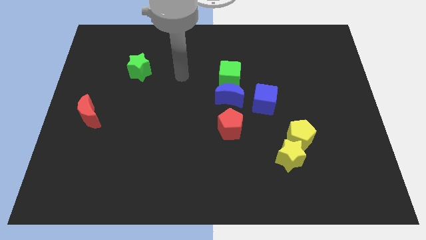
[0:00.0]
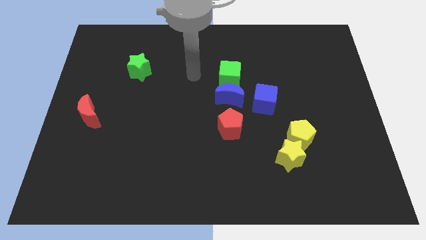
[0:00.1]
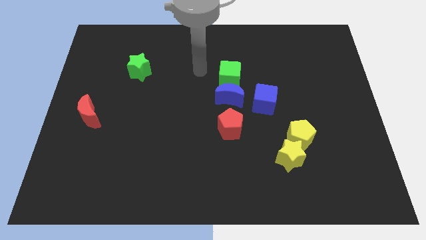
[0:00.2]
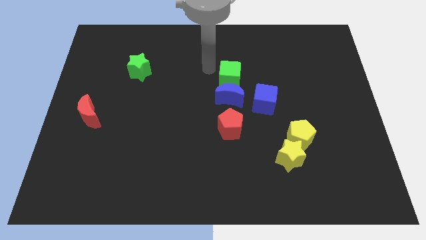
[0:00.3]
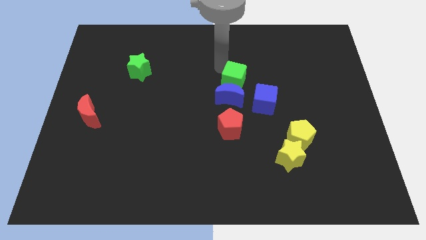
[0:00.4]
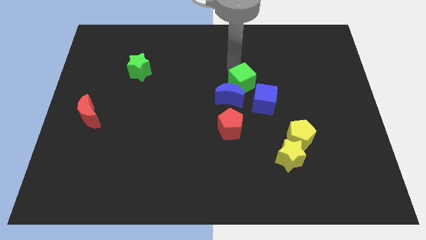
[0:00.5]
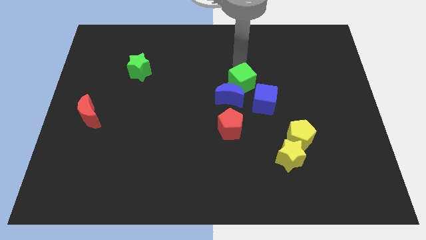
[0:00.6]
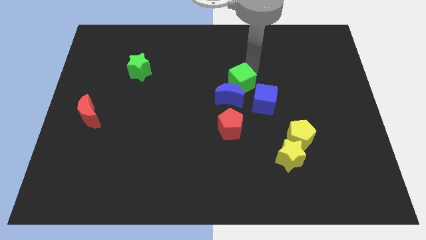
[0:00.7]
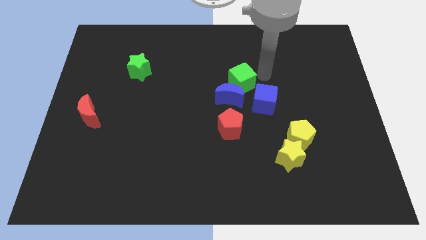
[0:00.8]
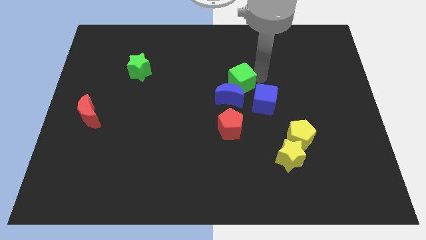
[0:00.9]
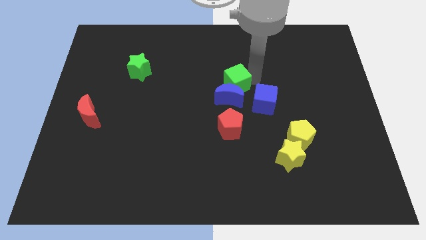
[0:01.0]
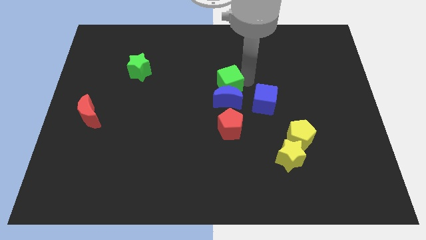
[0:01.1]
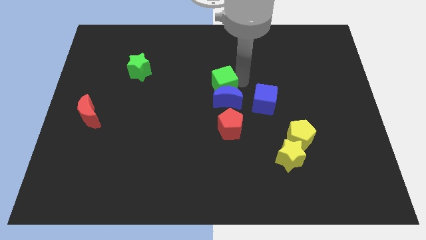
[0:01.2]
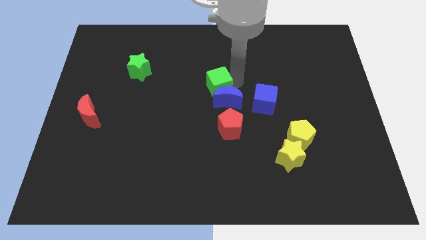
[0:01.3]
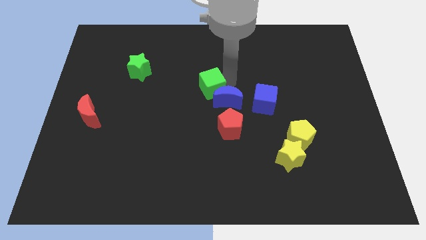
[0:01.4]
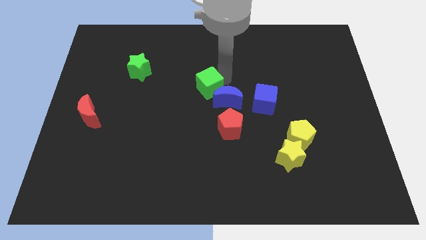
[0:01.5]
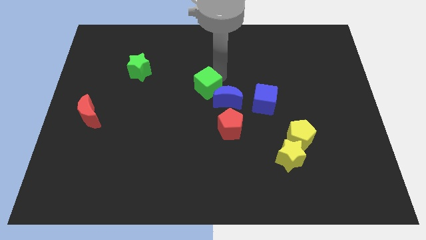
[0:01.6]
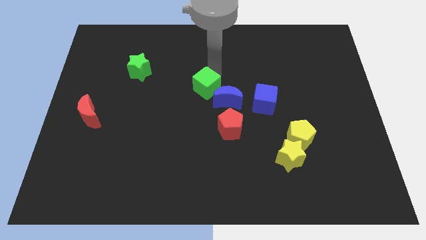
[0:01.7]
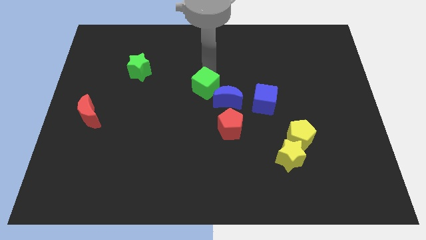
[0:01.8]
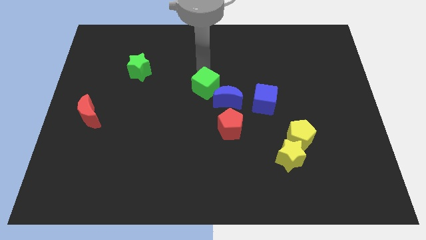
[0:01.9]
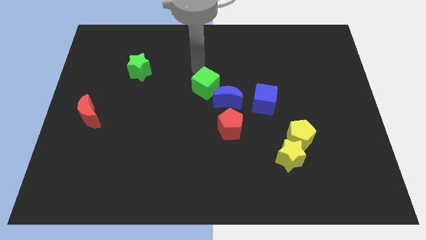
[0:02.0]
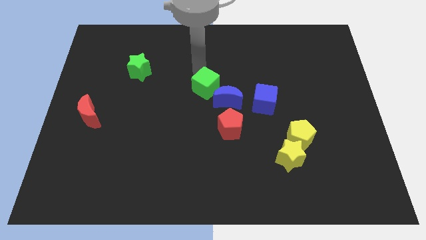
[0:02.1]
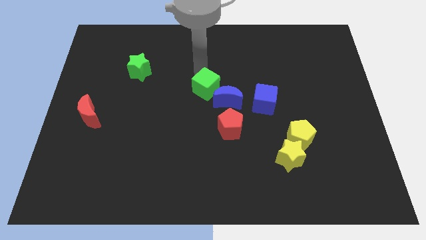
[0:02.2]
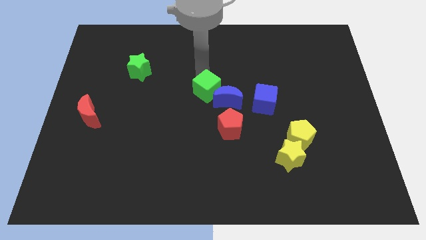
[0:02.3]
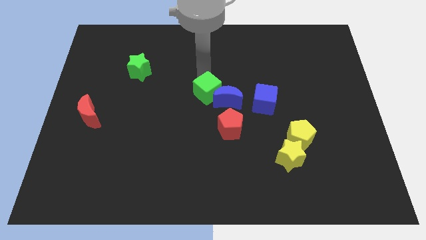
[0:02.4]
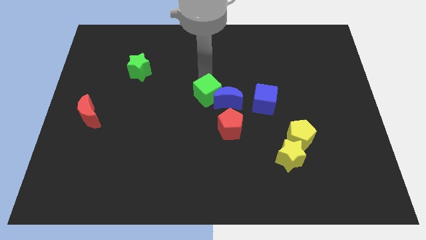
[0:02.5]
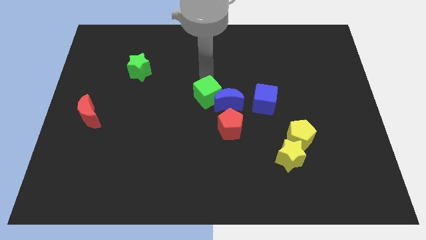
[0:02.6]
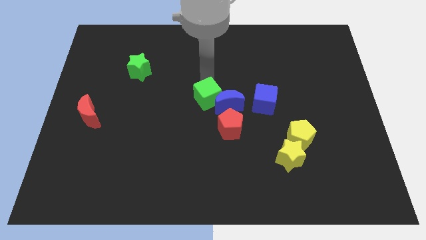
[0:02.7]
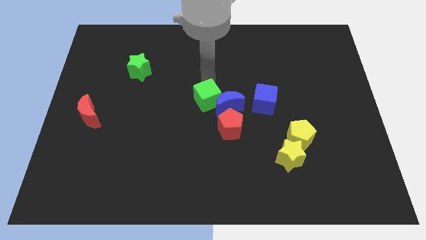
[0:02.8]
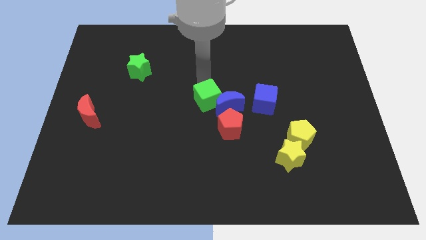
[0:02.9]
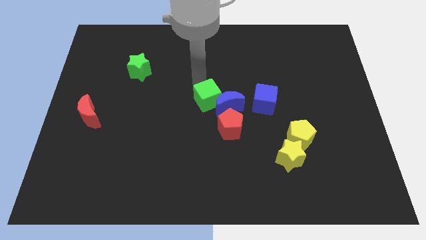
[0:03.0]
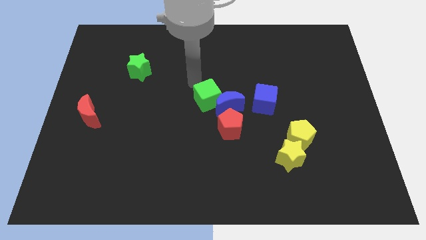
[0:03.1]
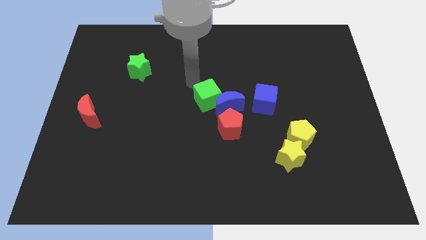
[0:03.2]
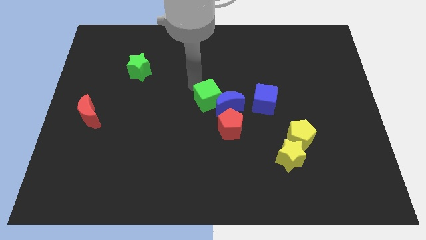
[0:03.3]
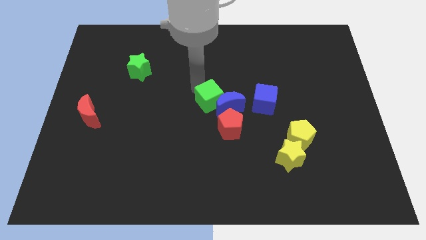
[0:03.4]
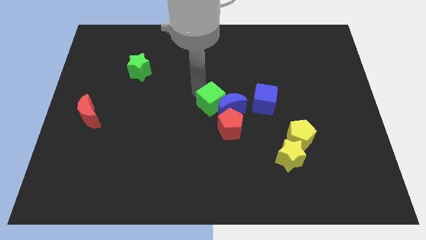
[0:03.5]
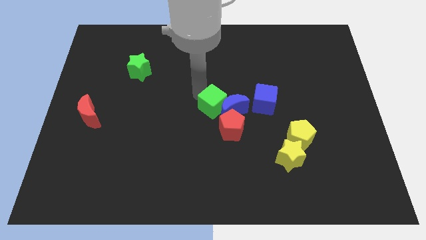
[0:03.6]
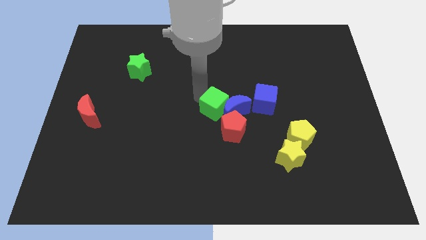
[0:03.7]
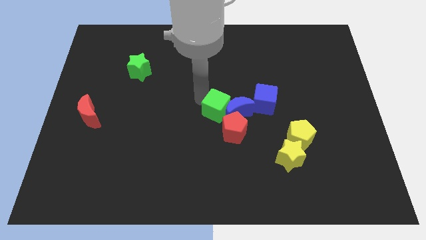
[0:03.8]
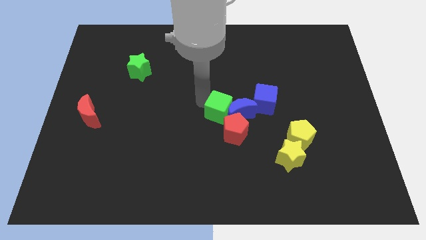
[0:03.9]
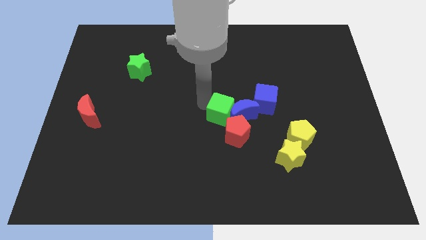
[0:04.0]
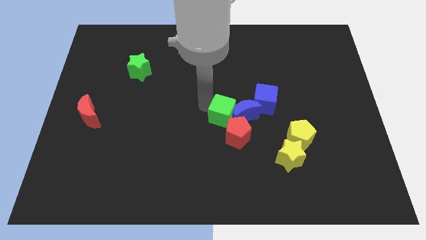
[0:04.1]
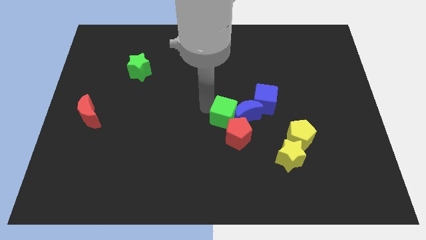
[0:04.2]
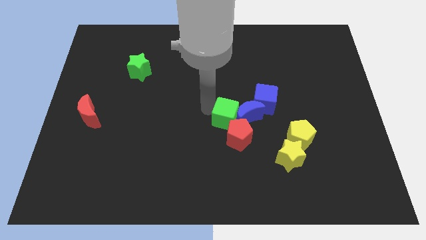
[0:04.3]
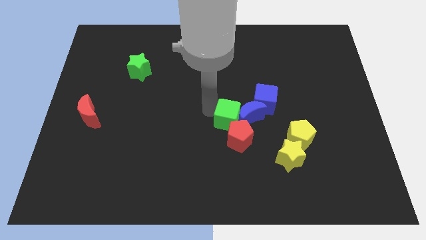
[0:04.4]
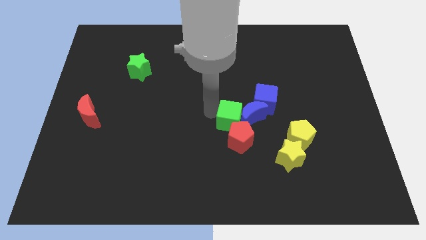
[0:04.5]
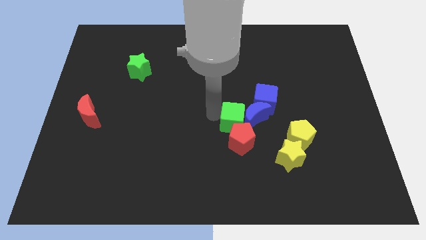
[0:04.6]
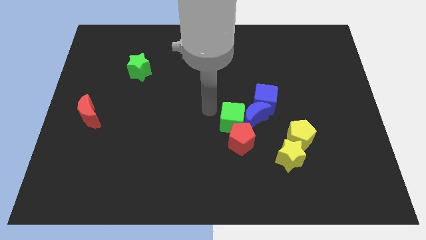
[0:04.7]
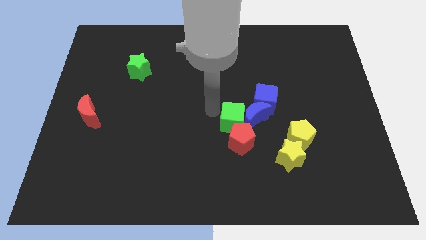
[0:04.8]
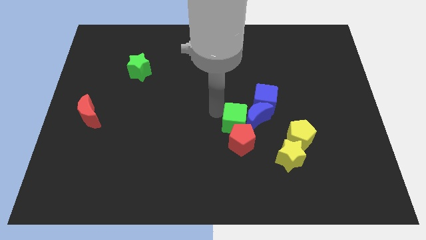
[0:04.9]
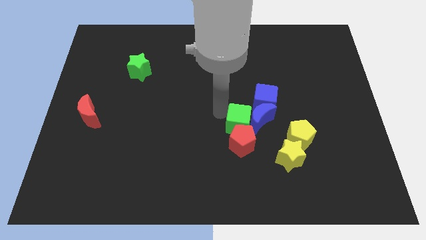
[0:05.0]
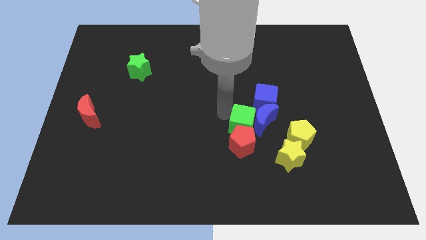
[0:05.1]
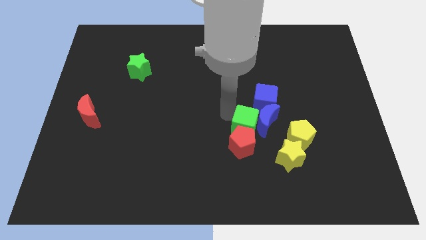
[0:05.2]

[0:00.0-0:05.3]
slide the green cube to the bottom side of the blue cube

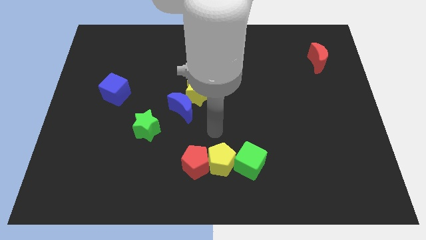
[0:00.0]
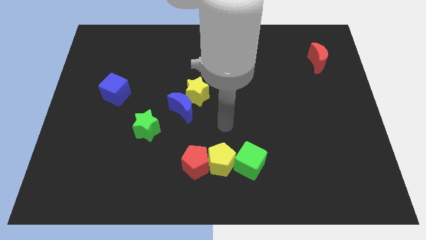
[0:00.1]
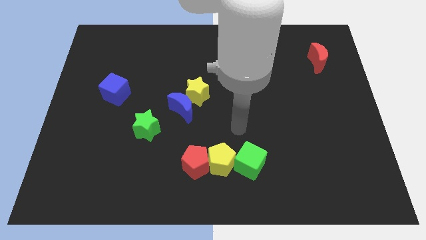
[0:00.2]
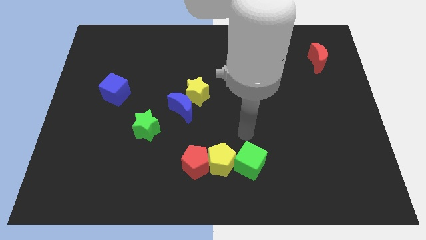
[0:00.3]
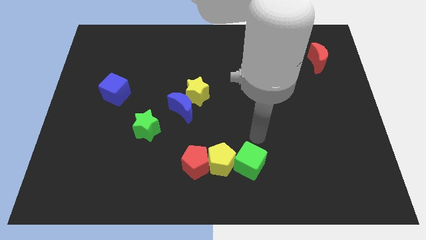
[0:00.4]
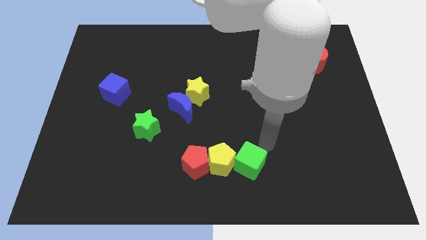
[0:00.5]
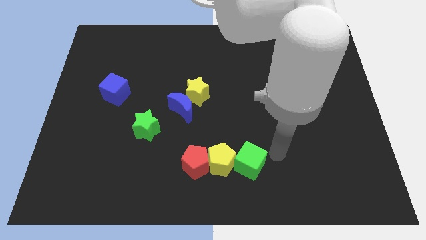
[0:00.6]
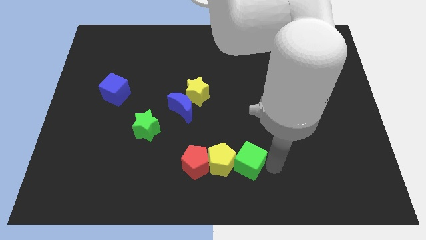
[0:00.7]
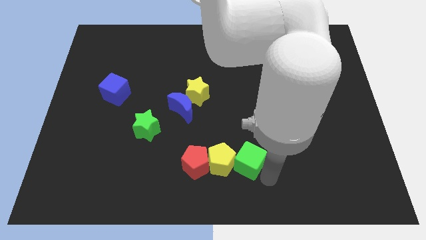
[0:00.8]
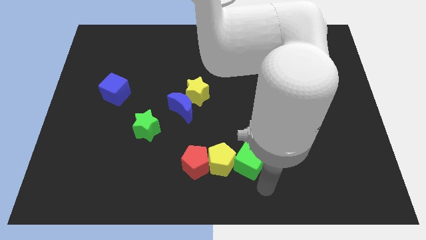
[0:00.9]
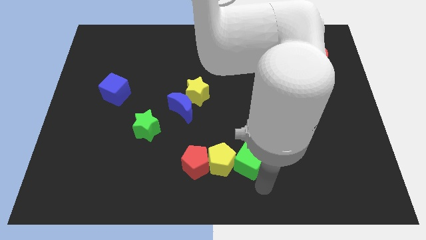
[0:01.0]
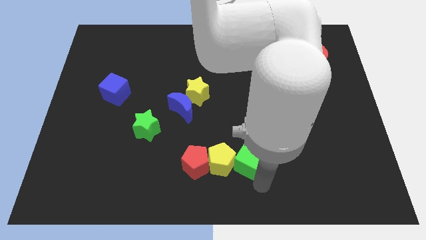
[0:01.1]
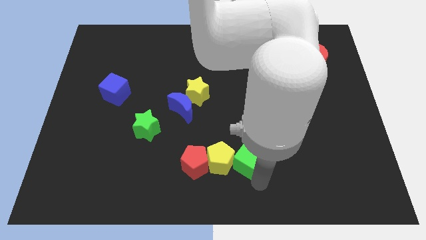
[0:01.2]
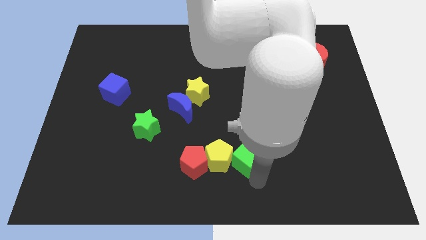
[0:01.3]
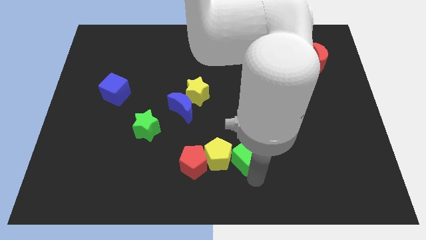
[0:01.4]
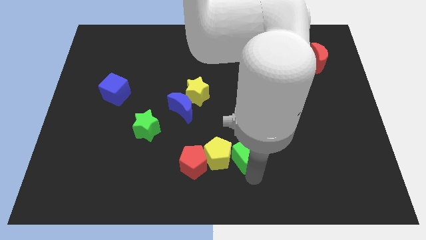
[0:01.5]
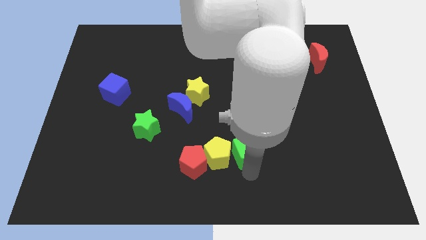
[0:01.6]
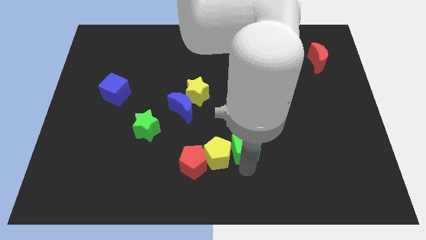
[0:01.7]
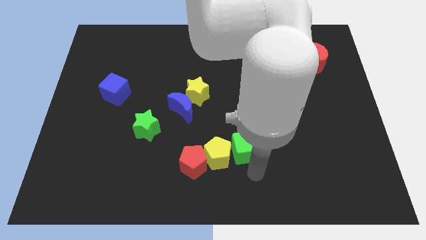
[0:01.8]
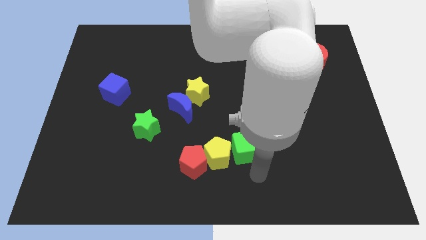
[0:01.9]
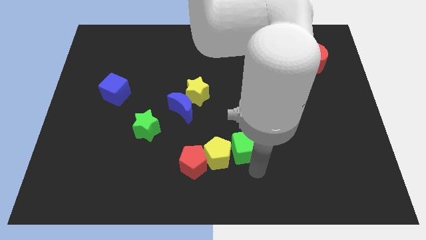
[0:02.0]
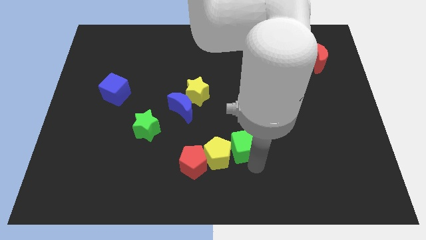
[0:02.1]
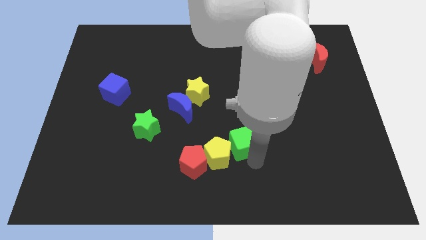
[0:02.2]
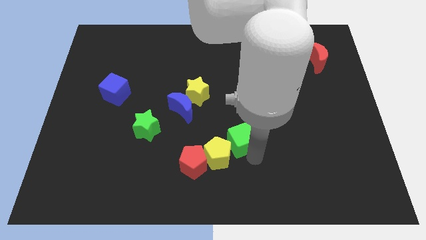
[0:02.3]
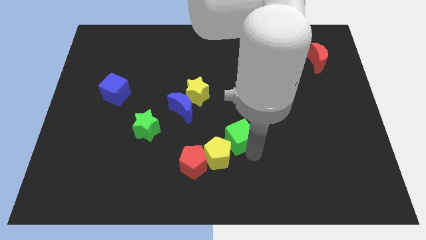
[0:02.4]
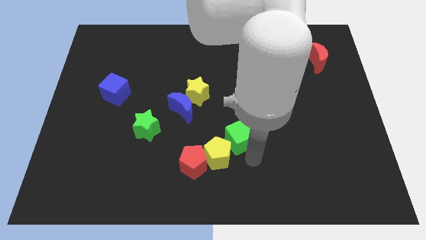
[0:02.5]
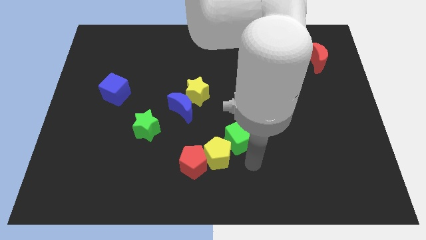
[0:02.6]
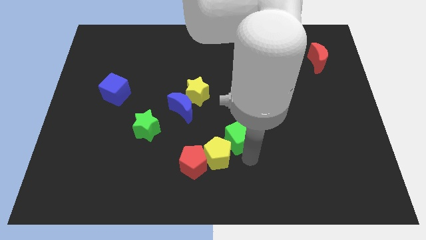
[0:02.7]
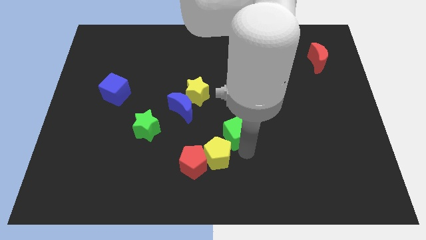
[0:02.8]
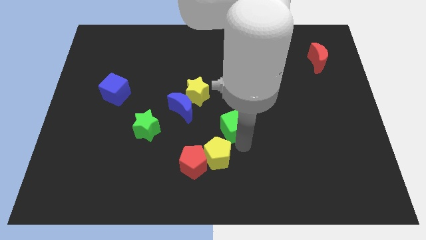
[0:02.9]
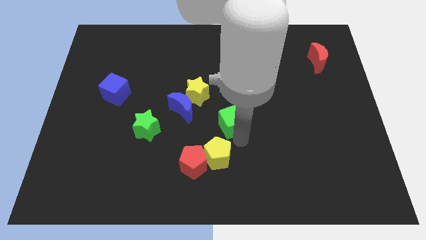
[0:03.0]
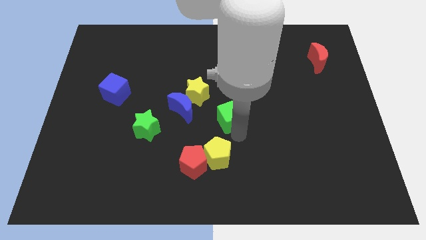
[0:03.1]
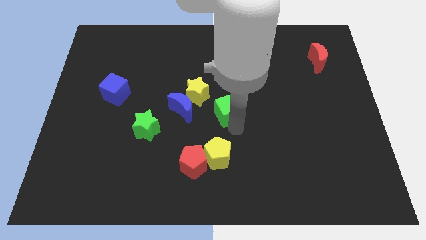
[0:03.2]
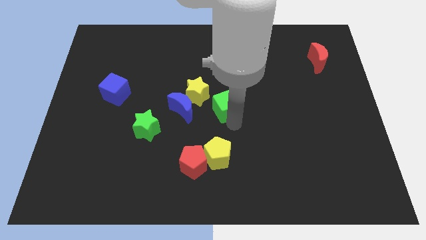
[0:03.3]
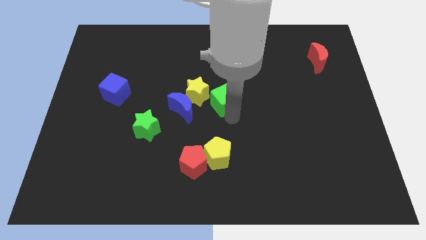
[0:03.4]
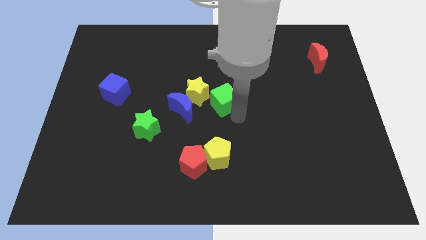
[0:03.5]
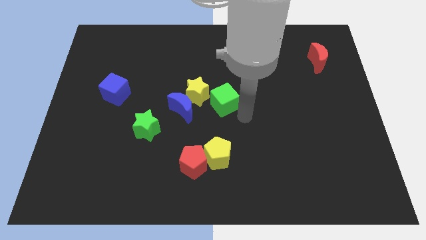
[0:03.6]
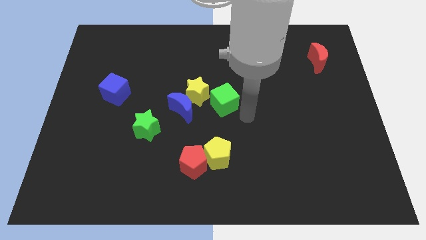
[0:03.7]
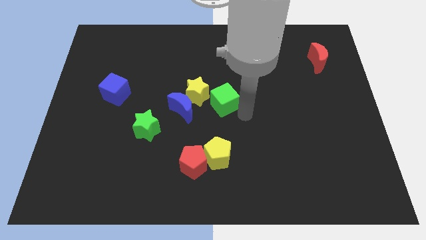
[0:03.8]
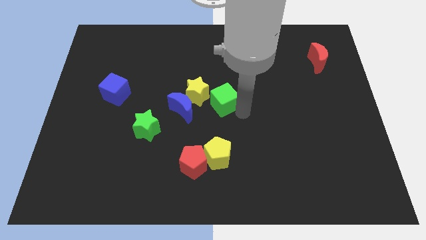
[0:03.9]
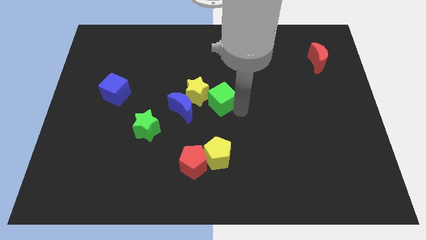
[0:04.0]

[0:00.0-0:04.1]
push the green cube diagonally up and to the right of the blue moon
